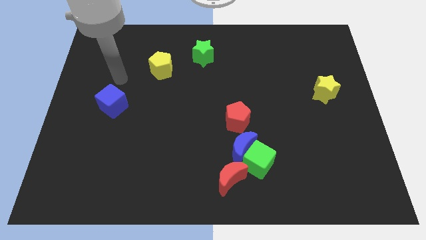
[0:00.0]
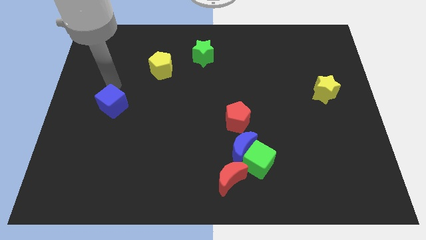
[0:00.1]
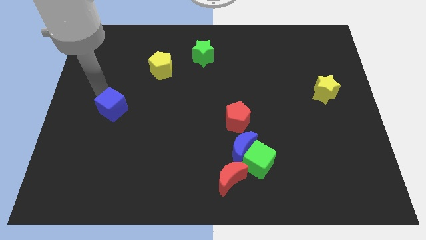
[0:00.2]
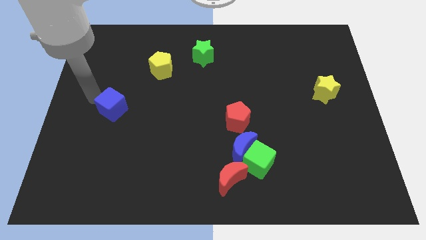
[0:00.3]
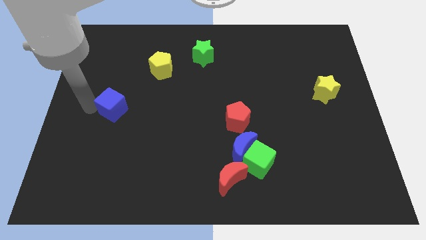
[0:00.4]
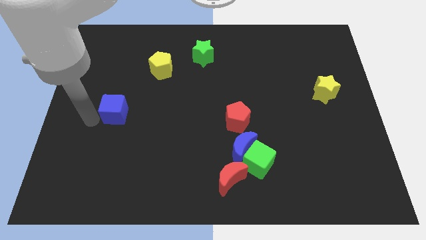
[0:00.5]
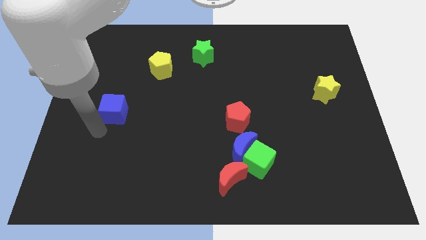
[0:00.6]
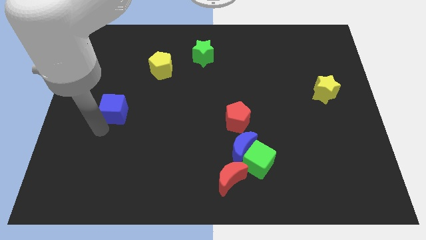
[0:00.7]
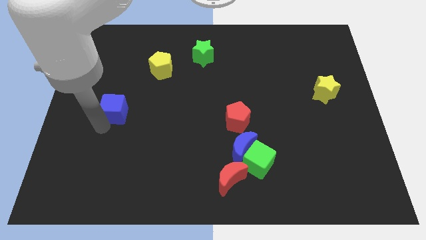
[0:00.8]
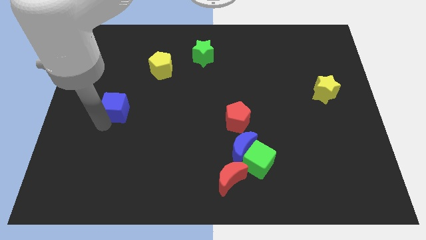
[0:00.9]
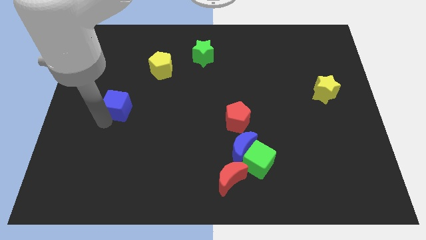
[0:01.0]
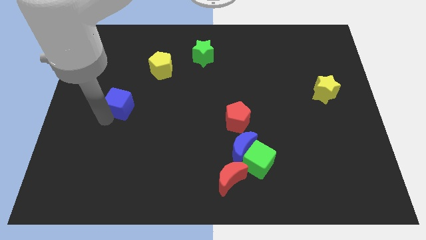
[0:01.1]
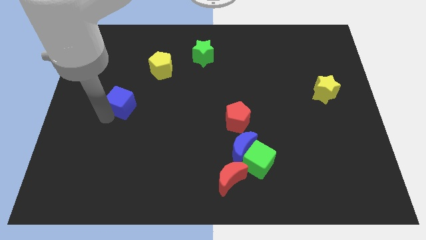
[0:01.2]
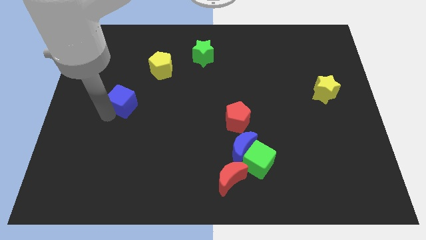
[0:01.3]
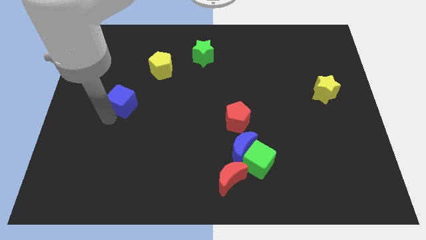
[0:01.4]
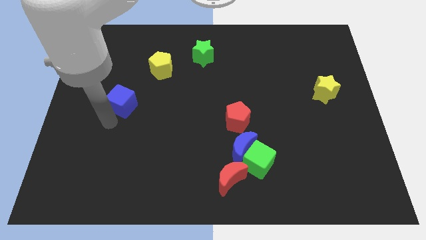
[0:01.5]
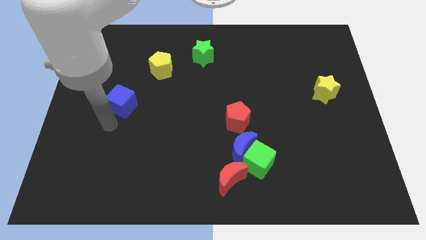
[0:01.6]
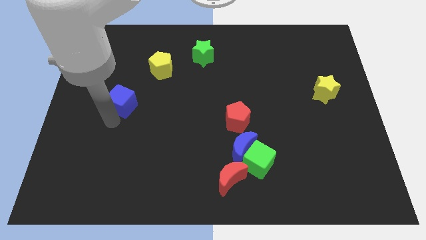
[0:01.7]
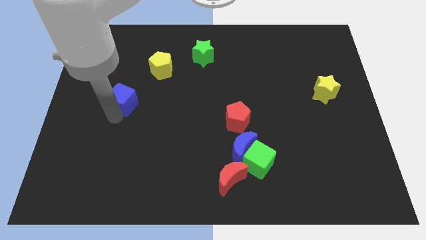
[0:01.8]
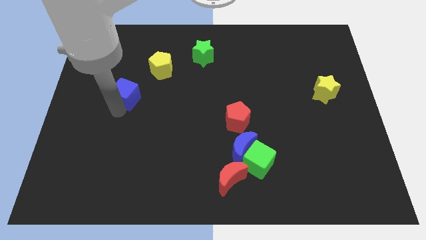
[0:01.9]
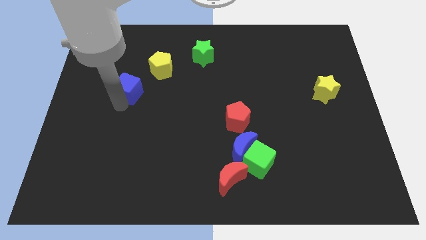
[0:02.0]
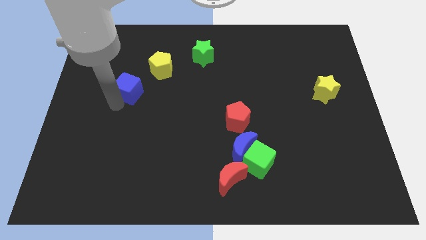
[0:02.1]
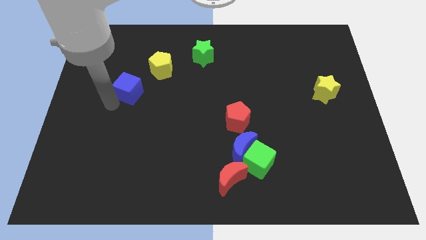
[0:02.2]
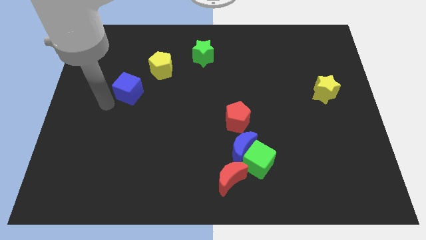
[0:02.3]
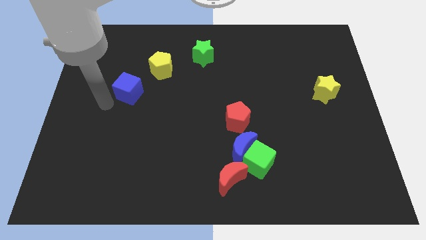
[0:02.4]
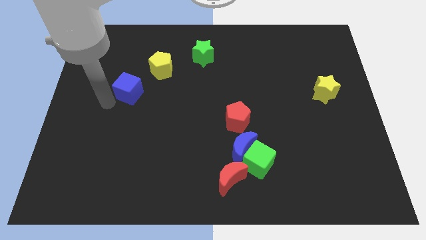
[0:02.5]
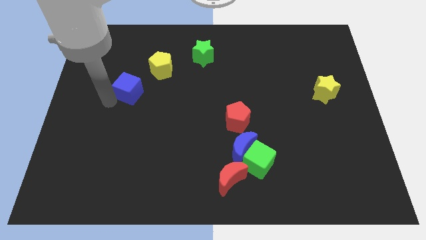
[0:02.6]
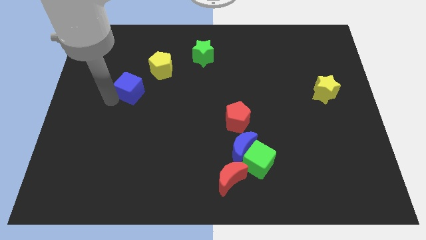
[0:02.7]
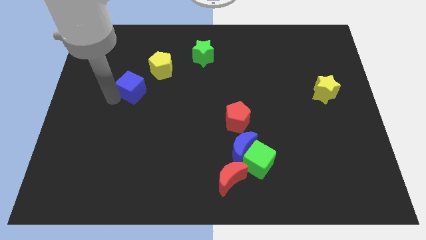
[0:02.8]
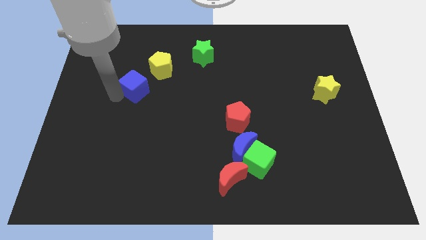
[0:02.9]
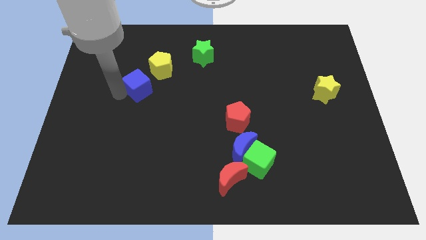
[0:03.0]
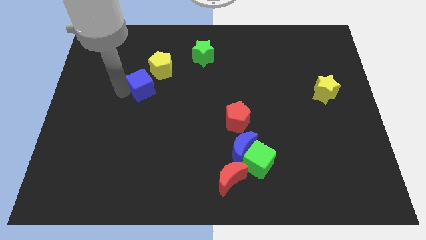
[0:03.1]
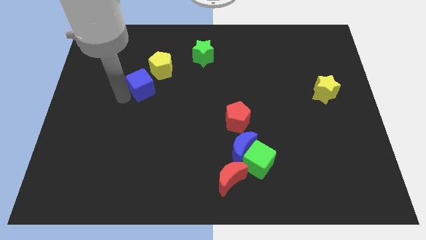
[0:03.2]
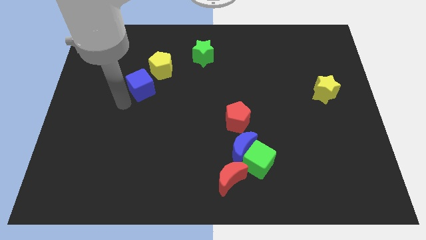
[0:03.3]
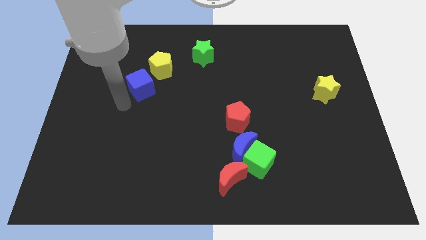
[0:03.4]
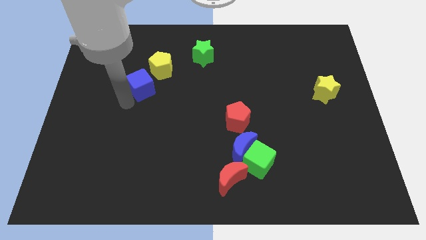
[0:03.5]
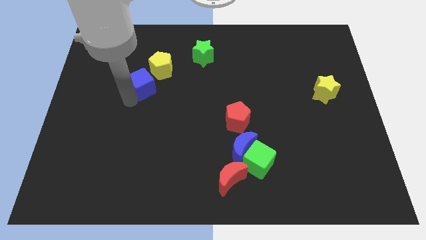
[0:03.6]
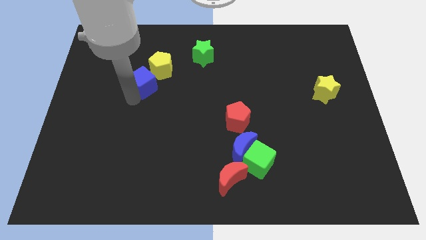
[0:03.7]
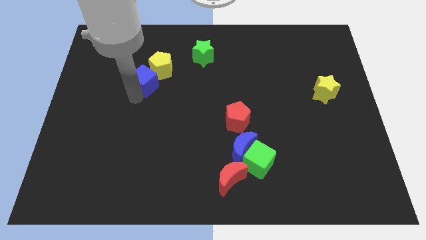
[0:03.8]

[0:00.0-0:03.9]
move the blue cube close to the yellow pentagon

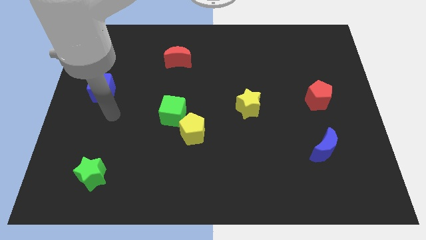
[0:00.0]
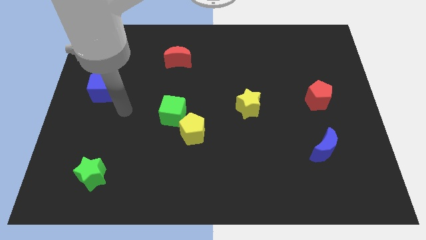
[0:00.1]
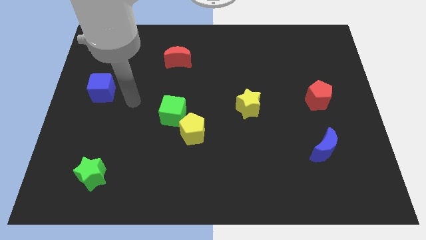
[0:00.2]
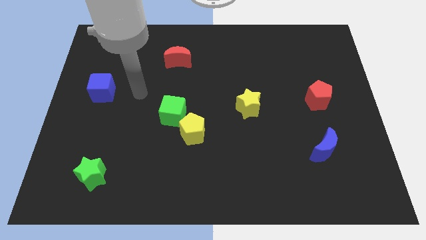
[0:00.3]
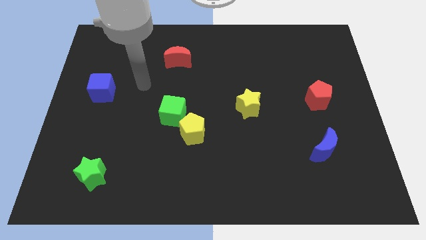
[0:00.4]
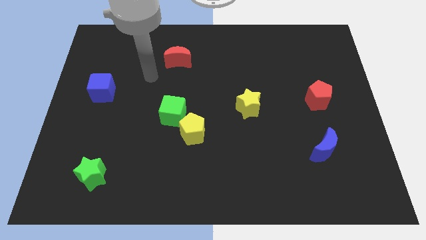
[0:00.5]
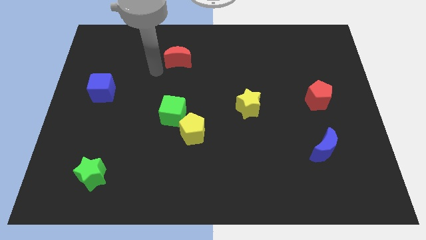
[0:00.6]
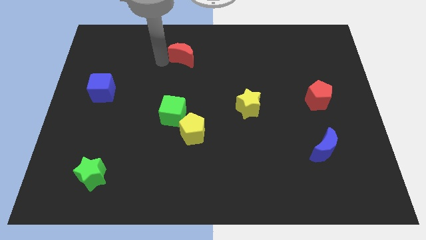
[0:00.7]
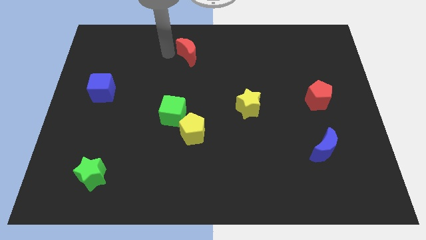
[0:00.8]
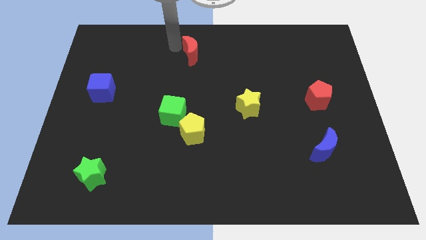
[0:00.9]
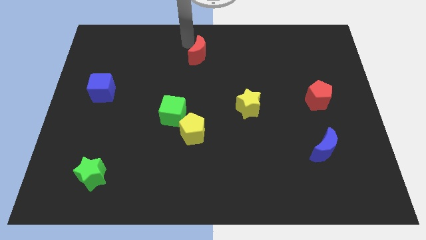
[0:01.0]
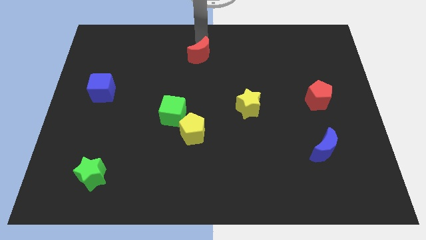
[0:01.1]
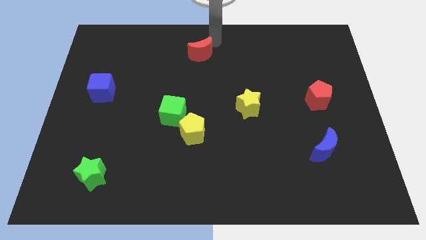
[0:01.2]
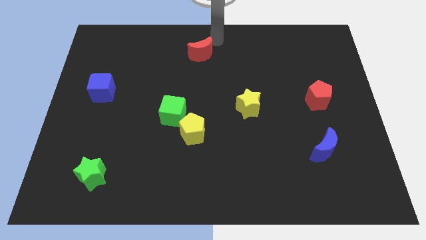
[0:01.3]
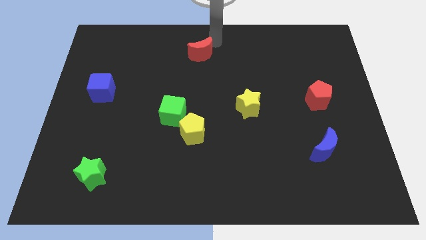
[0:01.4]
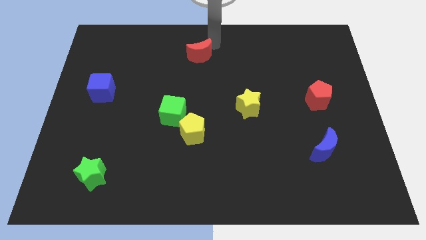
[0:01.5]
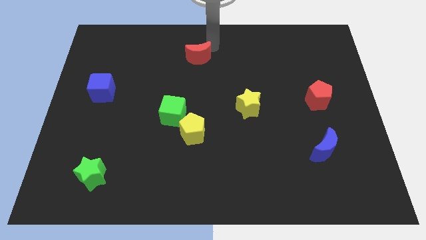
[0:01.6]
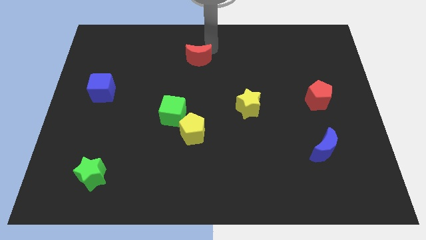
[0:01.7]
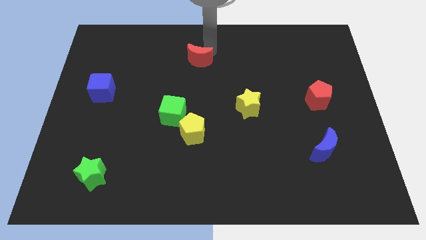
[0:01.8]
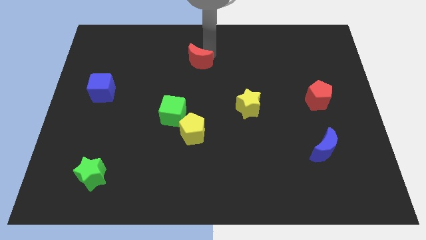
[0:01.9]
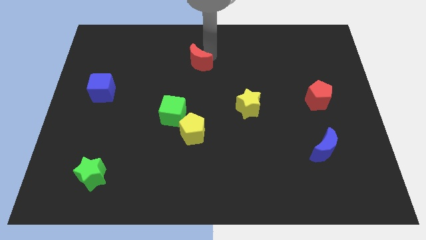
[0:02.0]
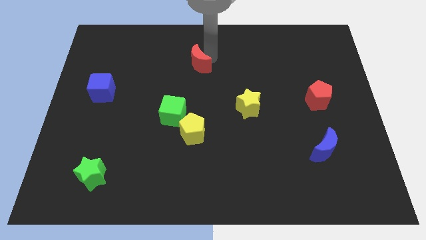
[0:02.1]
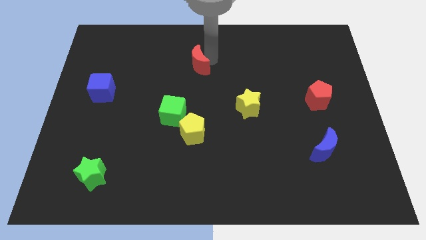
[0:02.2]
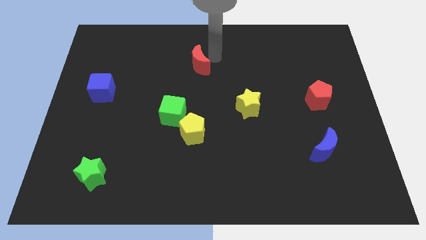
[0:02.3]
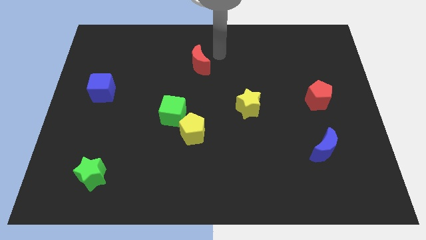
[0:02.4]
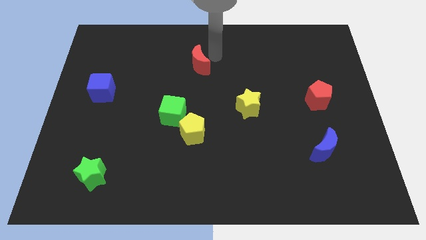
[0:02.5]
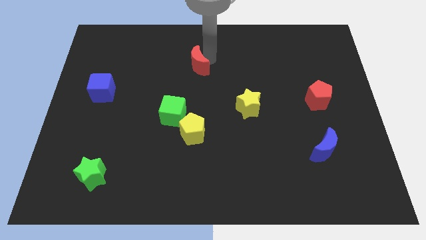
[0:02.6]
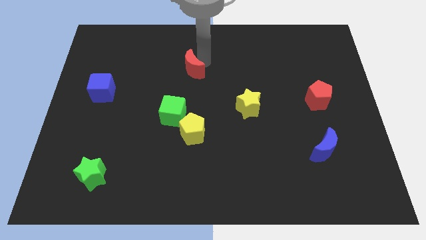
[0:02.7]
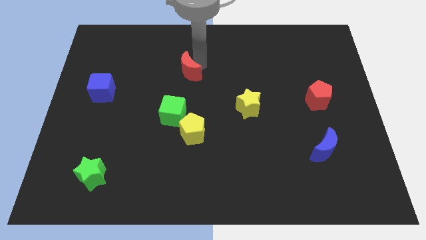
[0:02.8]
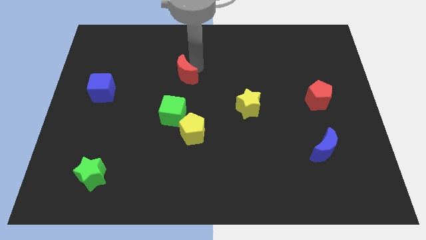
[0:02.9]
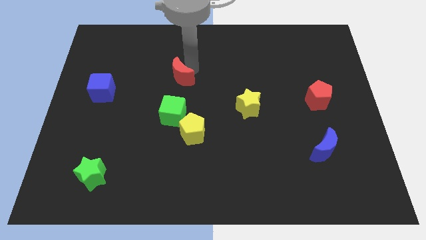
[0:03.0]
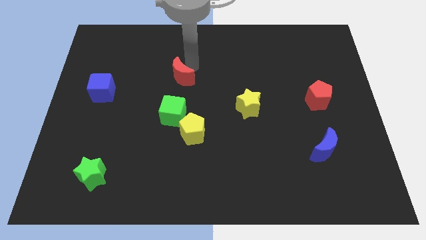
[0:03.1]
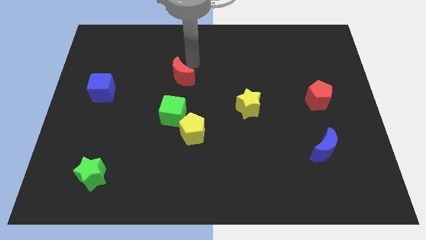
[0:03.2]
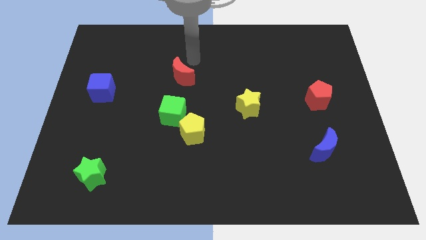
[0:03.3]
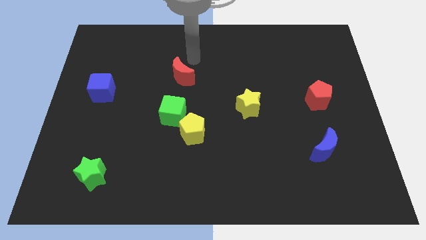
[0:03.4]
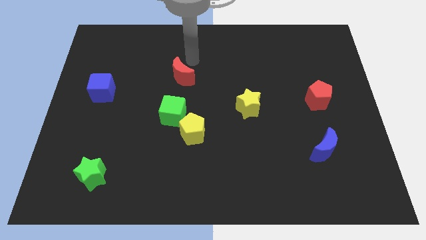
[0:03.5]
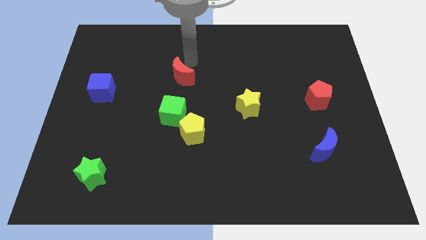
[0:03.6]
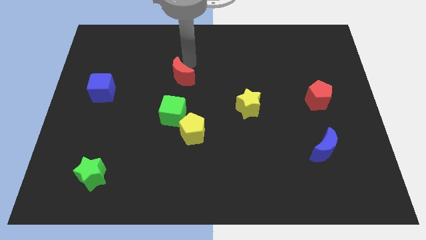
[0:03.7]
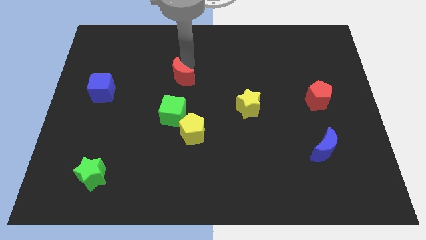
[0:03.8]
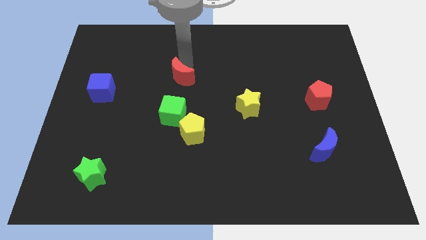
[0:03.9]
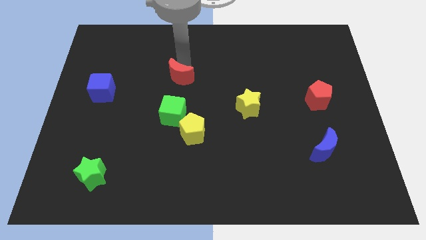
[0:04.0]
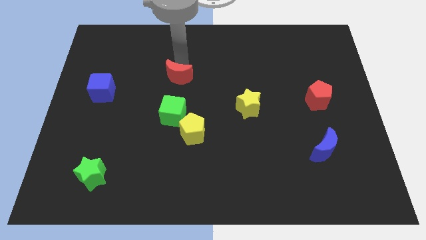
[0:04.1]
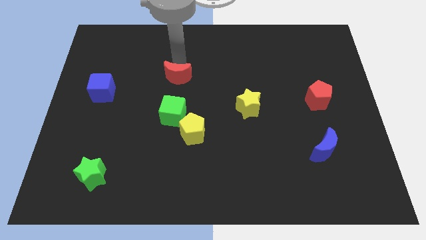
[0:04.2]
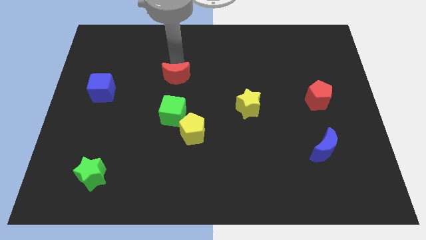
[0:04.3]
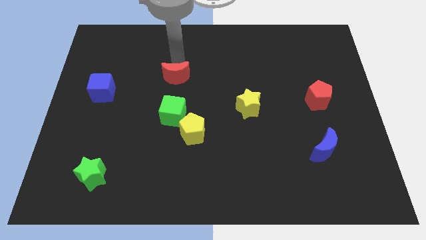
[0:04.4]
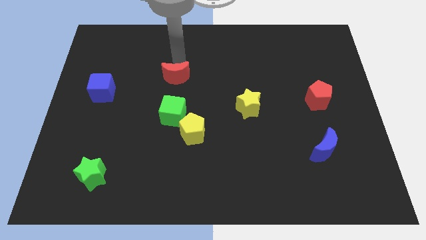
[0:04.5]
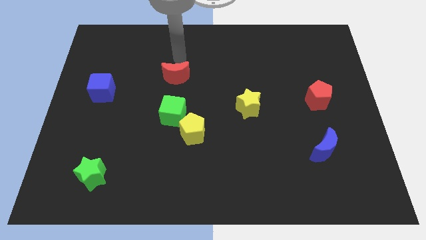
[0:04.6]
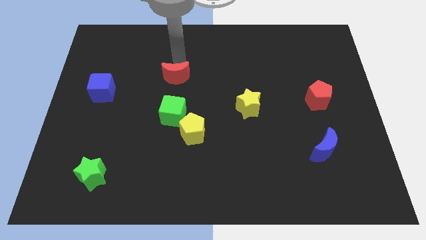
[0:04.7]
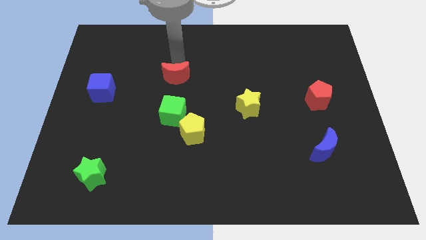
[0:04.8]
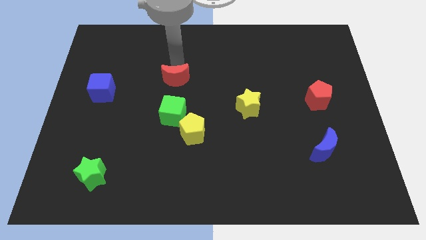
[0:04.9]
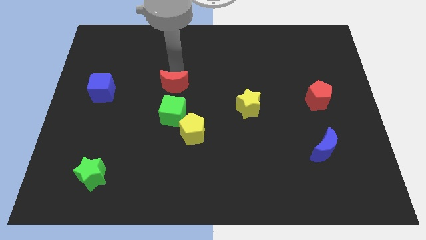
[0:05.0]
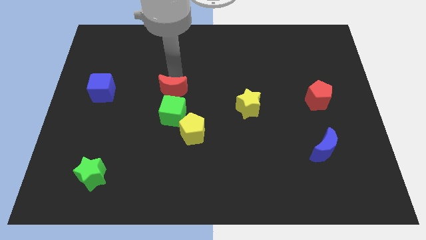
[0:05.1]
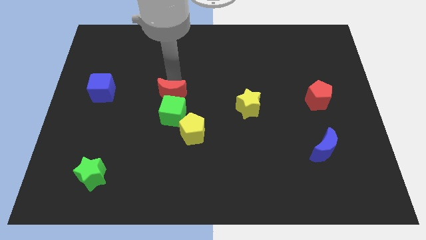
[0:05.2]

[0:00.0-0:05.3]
slide the red moon to the green cube
